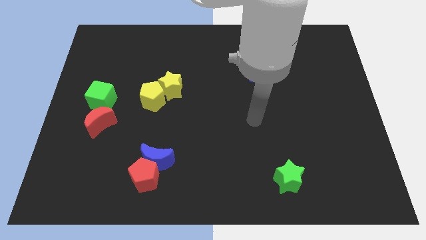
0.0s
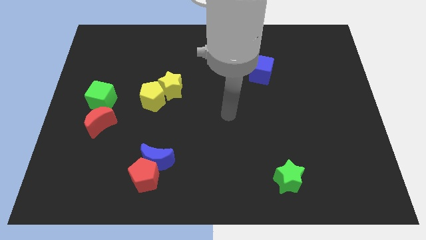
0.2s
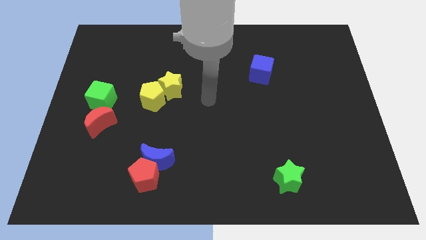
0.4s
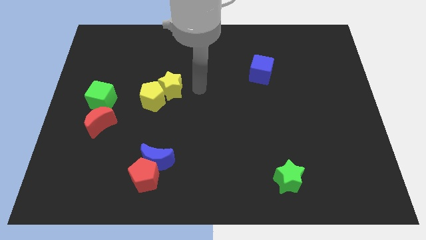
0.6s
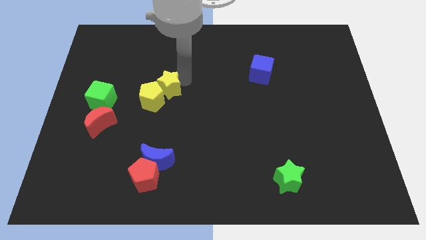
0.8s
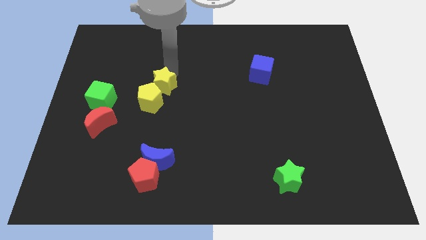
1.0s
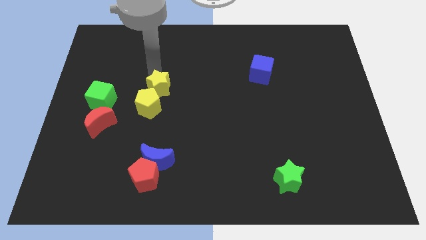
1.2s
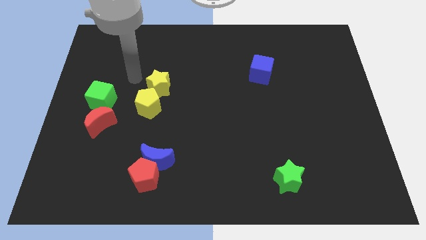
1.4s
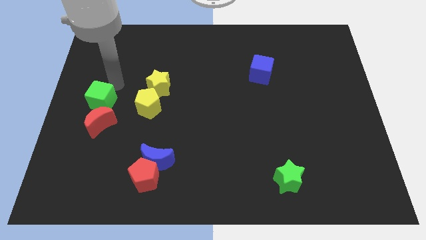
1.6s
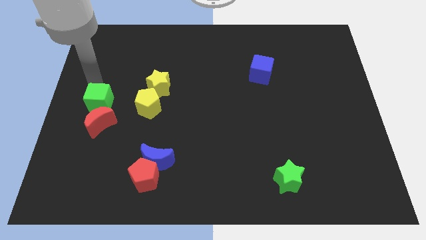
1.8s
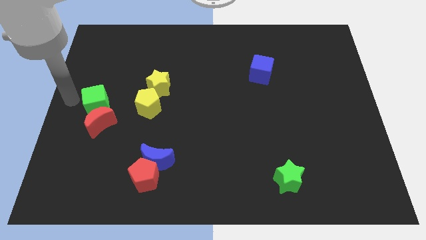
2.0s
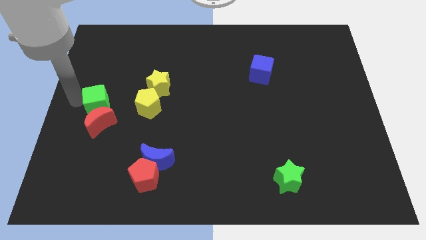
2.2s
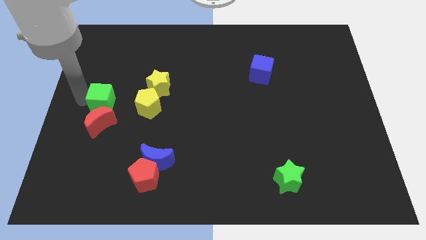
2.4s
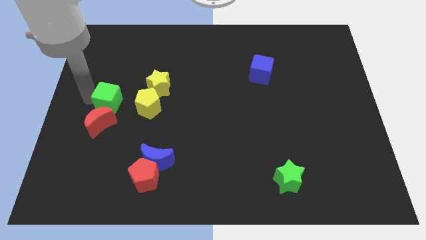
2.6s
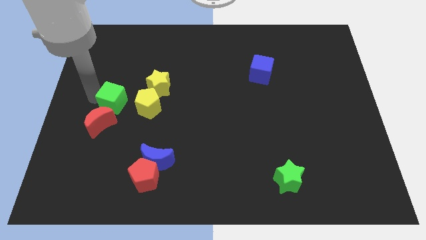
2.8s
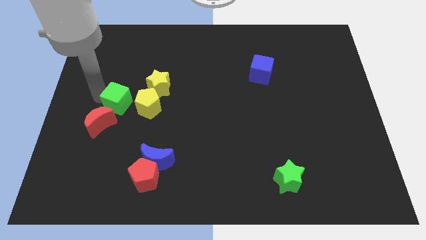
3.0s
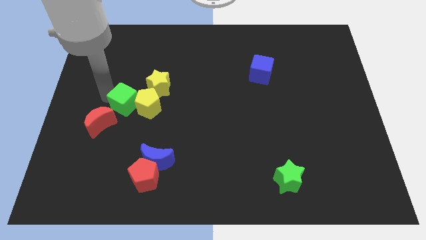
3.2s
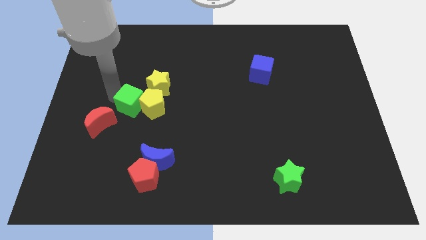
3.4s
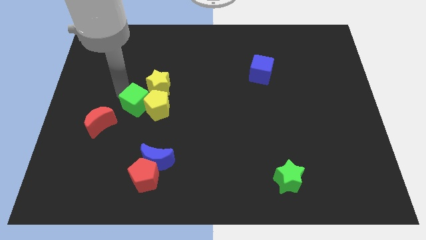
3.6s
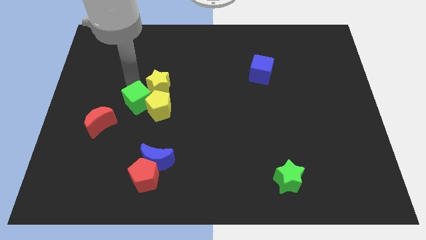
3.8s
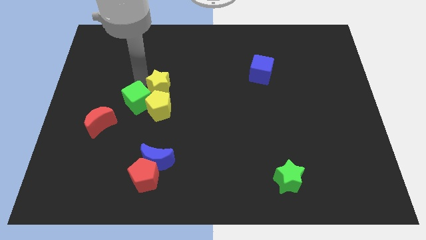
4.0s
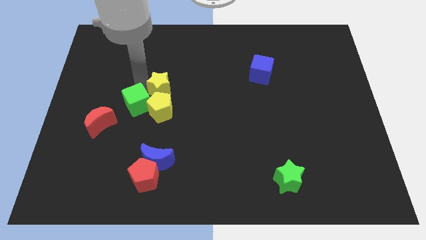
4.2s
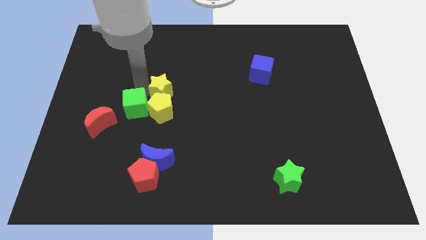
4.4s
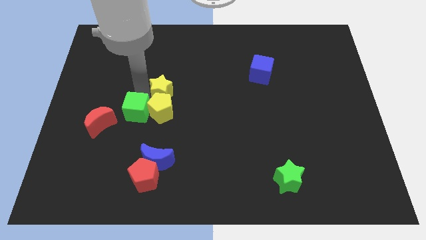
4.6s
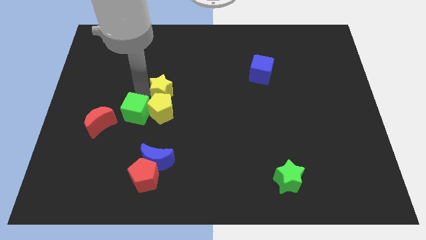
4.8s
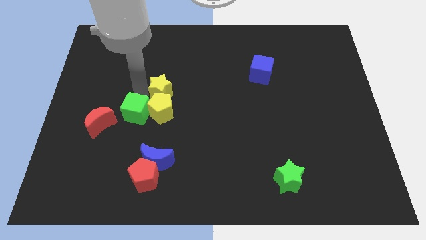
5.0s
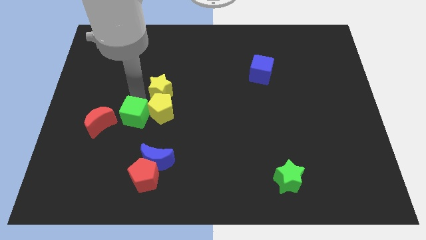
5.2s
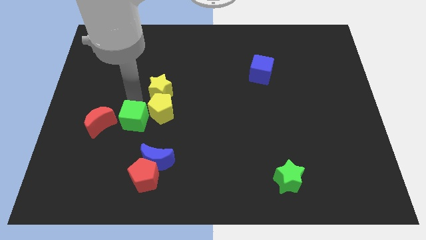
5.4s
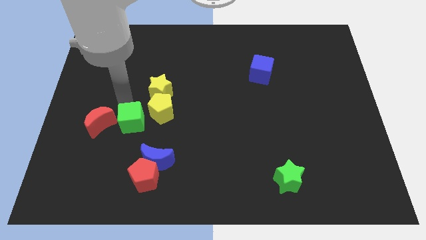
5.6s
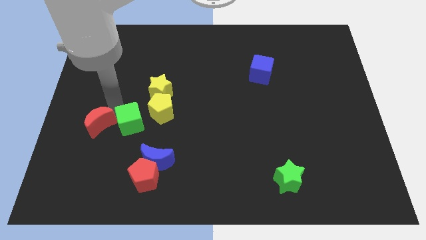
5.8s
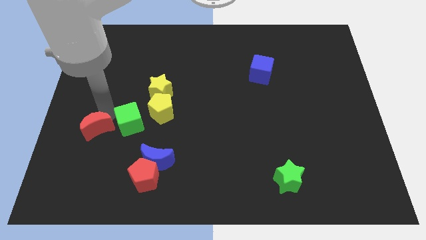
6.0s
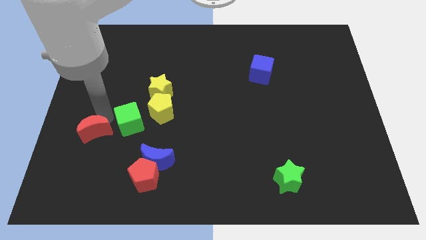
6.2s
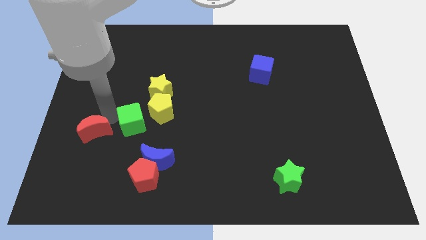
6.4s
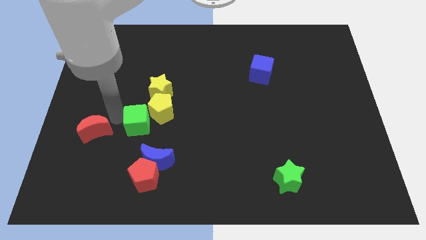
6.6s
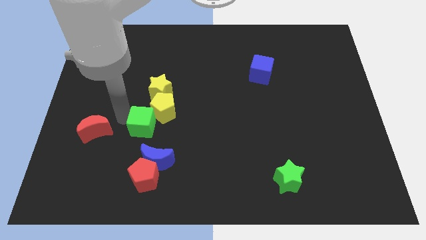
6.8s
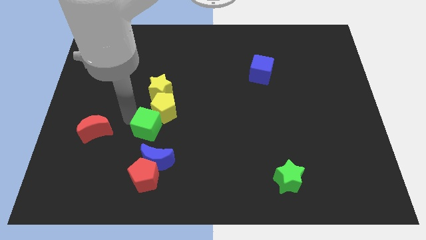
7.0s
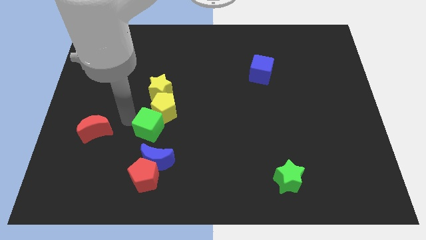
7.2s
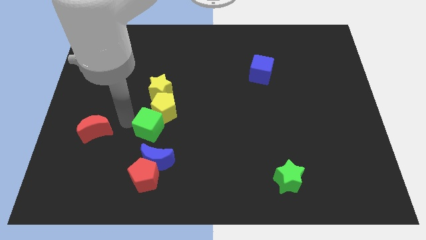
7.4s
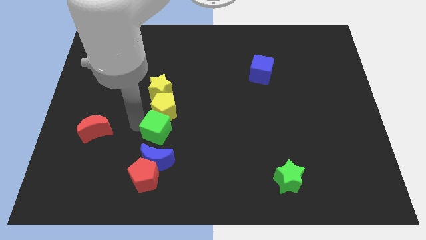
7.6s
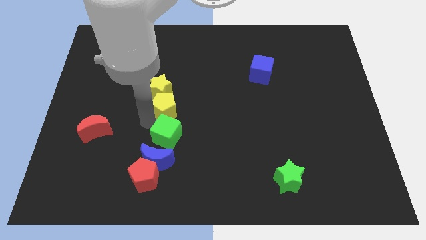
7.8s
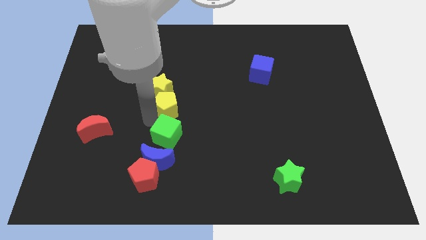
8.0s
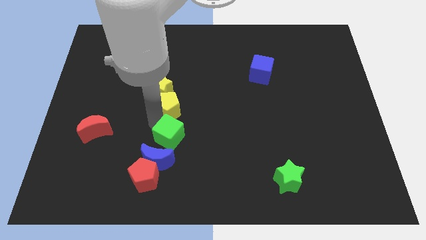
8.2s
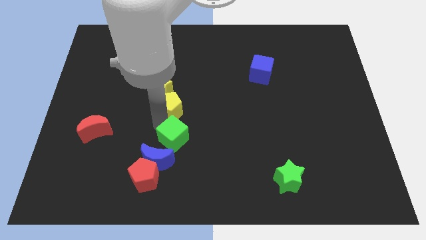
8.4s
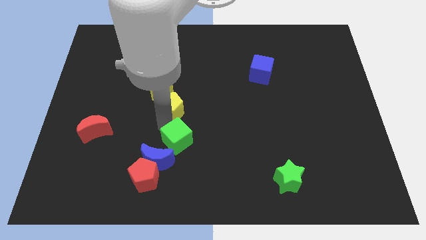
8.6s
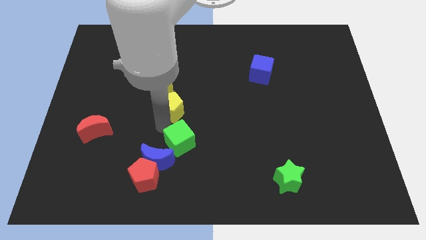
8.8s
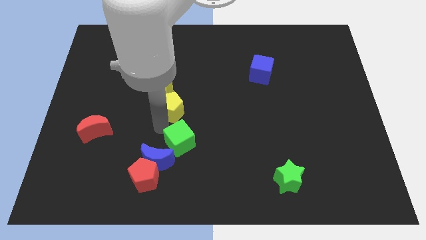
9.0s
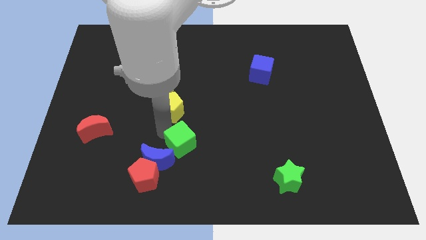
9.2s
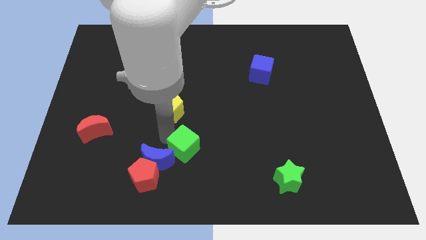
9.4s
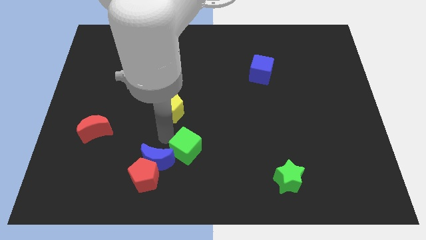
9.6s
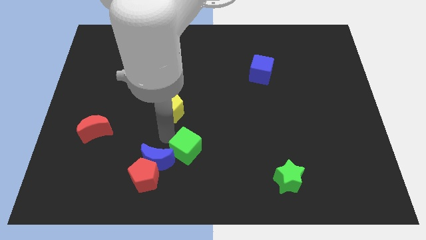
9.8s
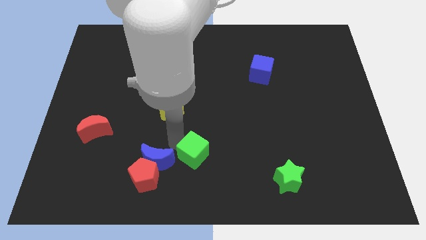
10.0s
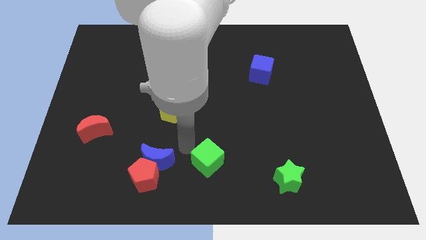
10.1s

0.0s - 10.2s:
push the green cube to the bottom

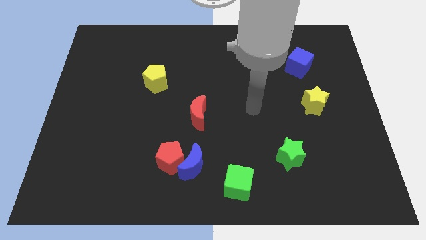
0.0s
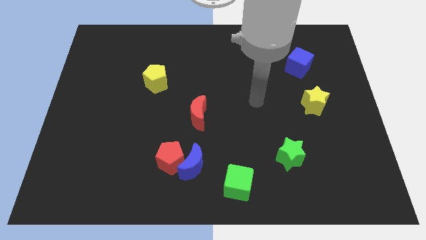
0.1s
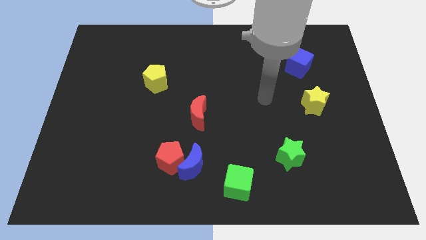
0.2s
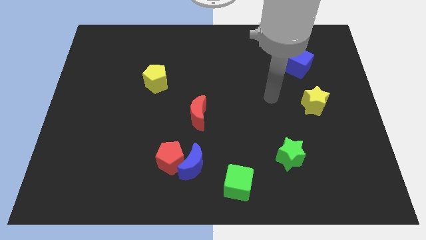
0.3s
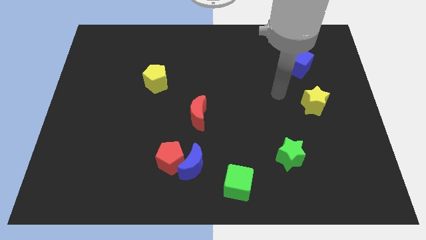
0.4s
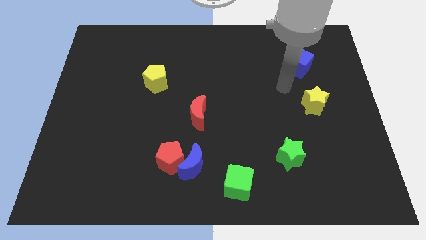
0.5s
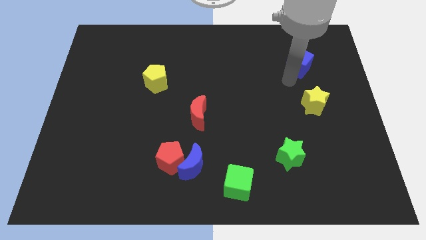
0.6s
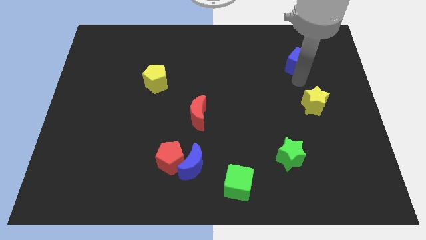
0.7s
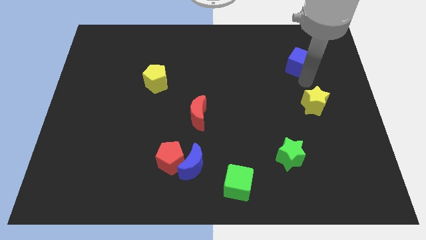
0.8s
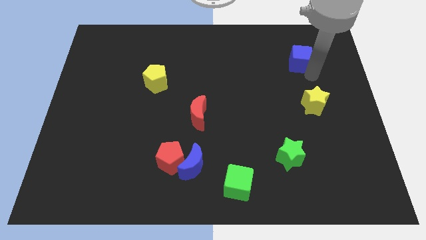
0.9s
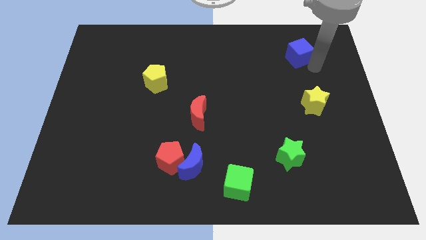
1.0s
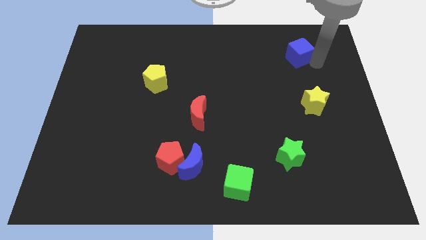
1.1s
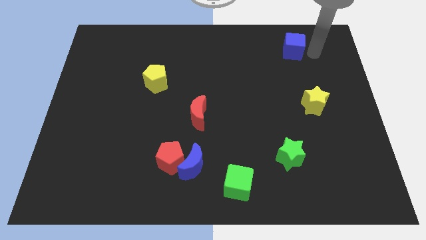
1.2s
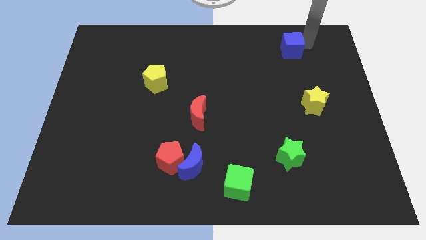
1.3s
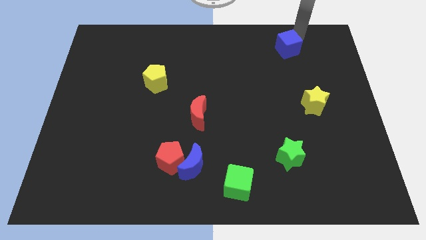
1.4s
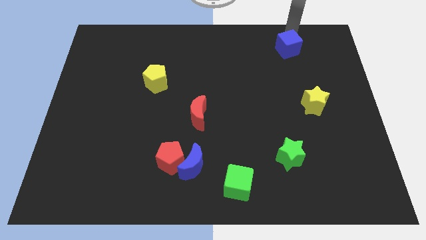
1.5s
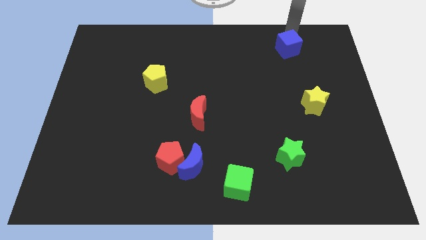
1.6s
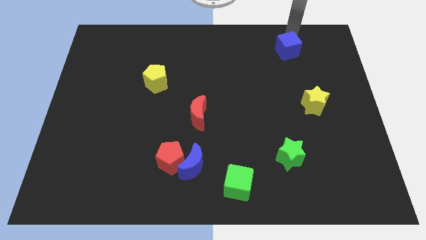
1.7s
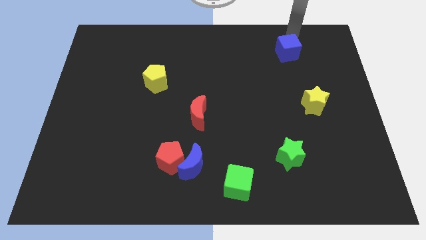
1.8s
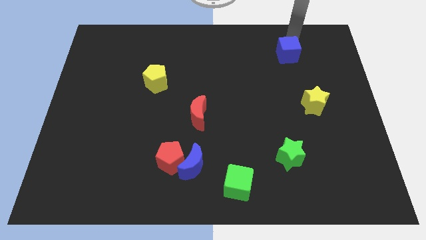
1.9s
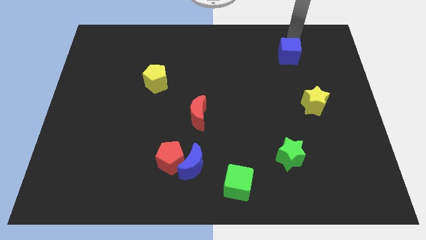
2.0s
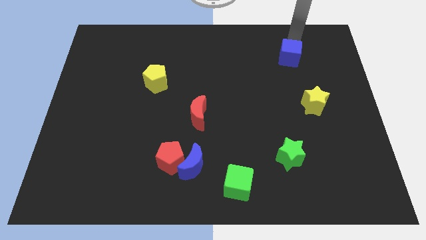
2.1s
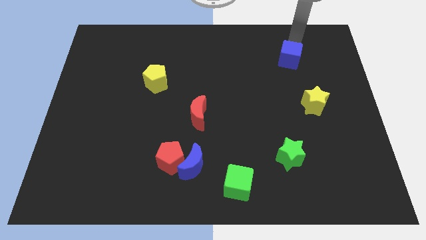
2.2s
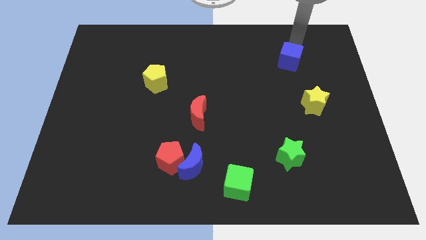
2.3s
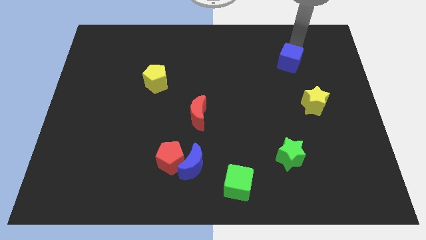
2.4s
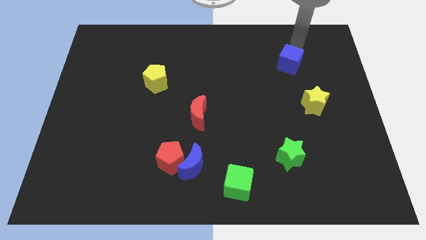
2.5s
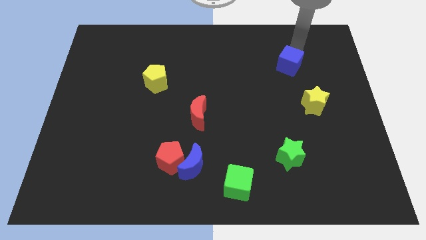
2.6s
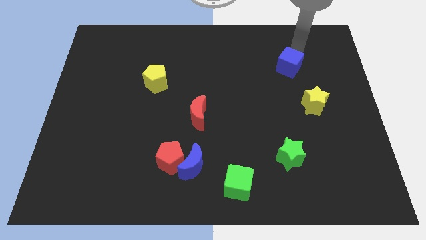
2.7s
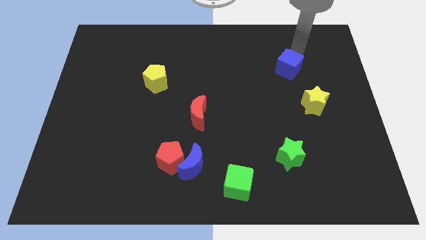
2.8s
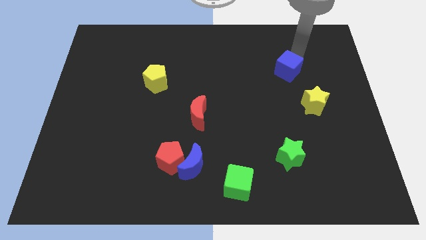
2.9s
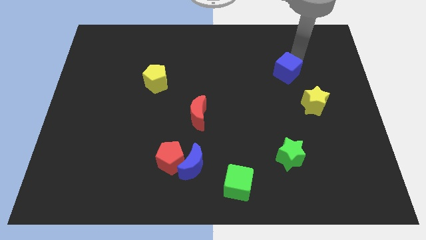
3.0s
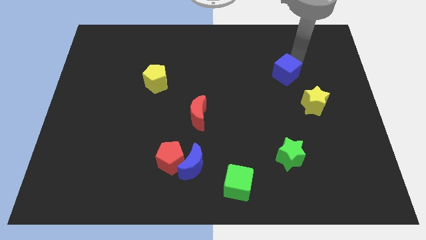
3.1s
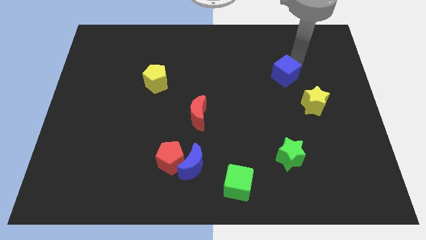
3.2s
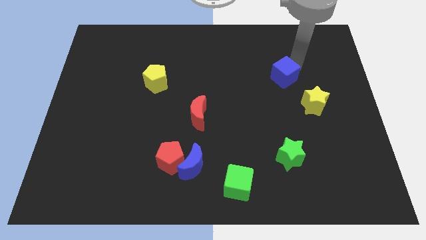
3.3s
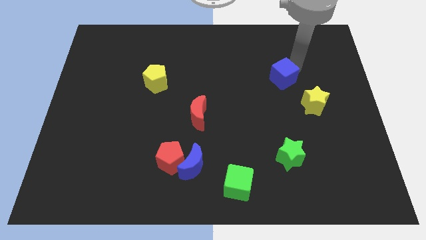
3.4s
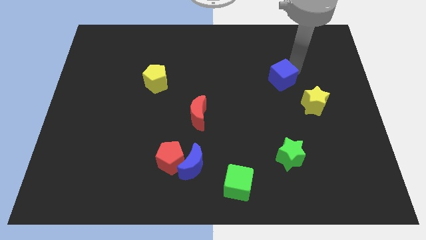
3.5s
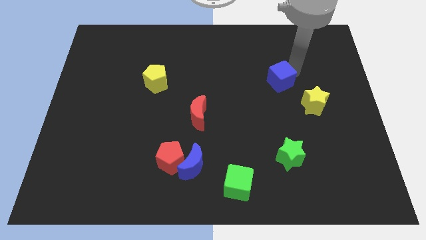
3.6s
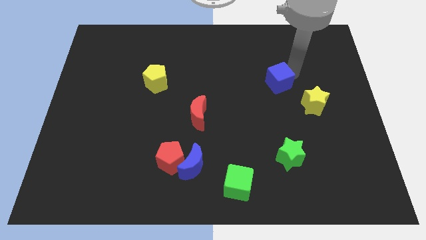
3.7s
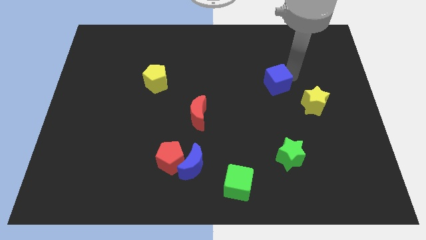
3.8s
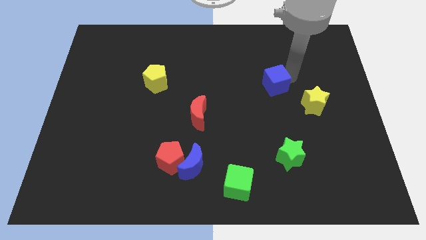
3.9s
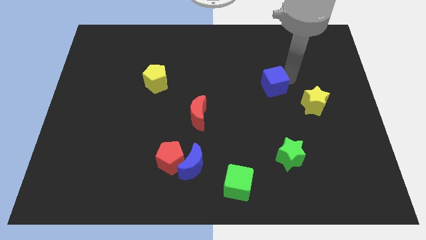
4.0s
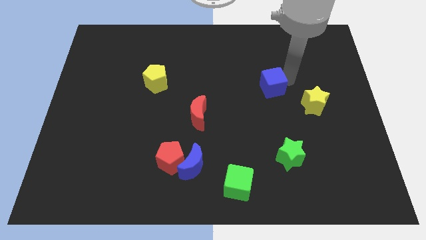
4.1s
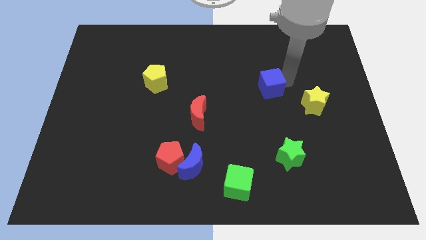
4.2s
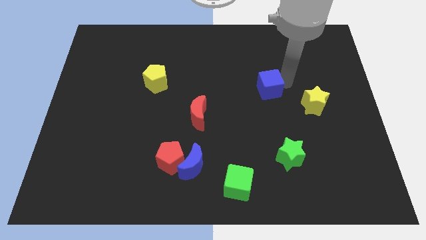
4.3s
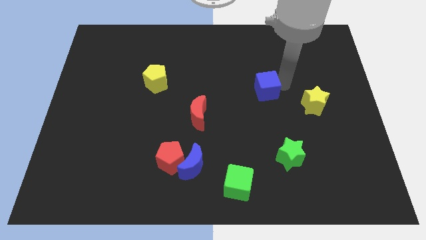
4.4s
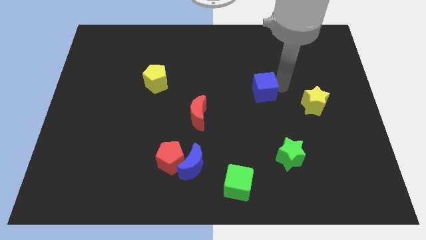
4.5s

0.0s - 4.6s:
move the blue cube to the middle
